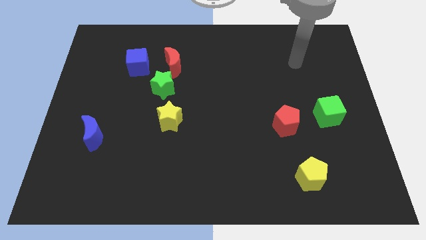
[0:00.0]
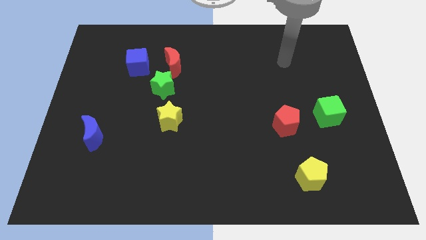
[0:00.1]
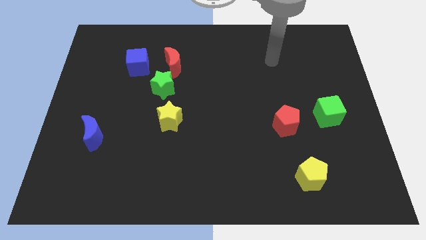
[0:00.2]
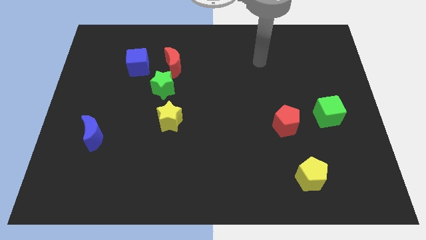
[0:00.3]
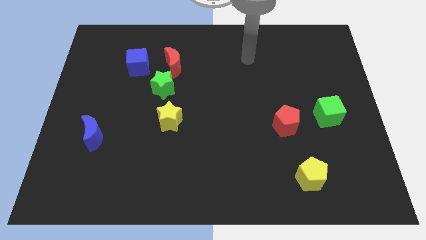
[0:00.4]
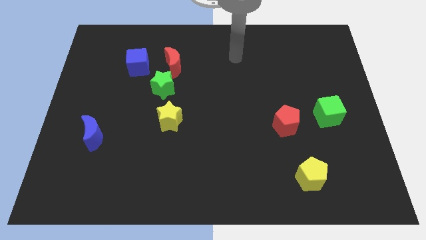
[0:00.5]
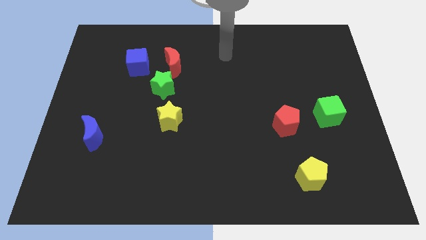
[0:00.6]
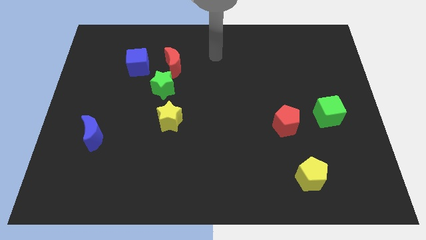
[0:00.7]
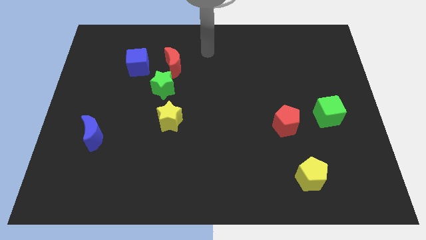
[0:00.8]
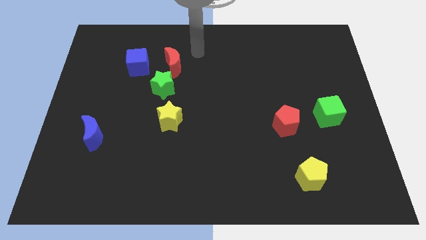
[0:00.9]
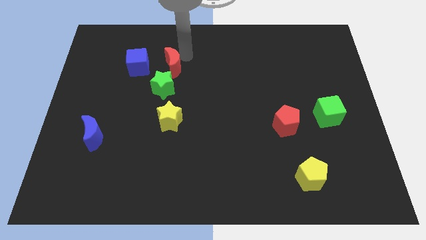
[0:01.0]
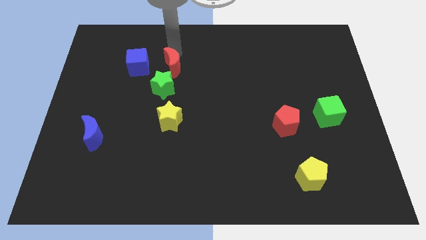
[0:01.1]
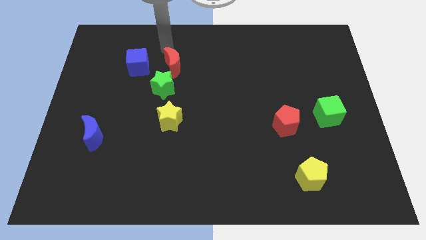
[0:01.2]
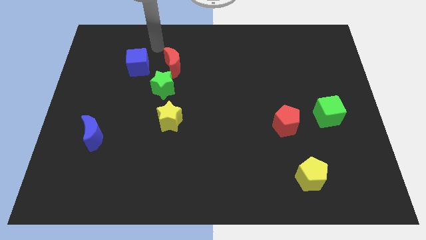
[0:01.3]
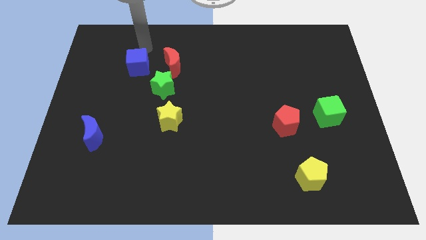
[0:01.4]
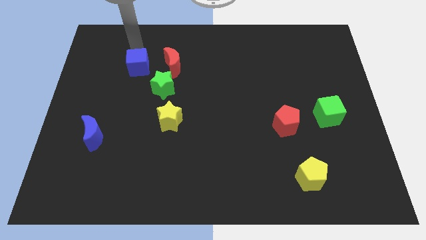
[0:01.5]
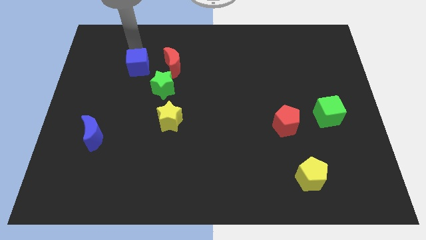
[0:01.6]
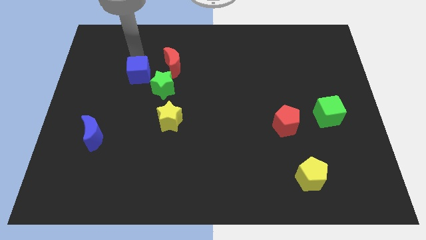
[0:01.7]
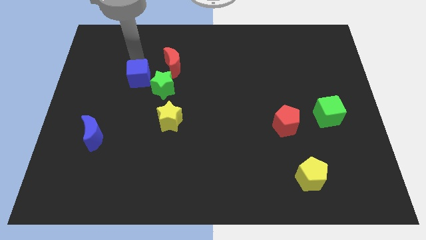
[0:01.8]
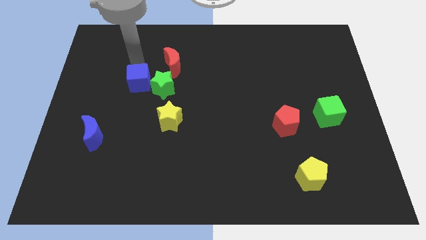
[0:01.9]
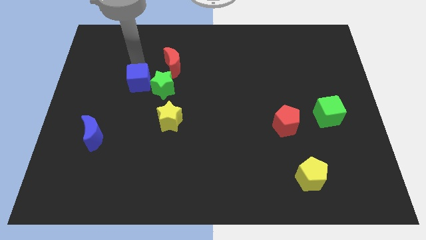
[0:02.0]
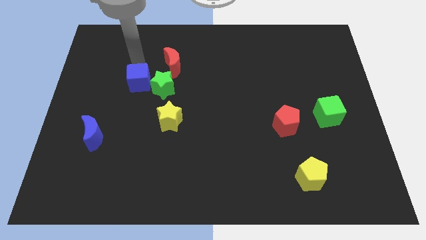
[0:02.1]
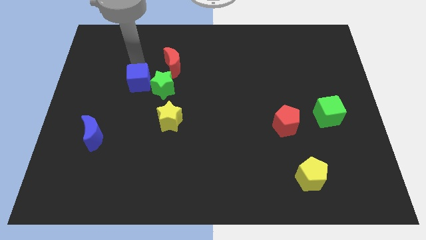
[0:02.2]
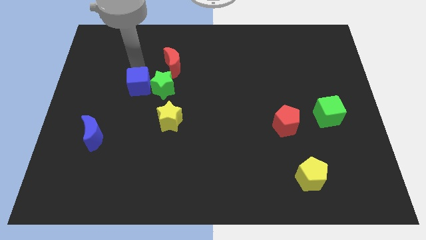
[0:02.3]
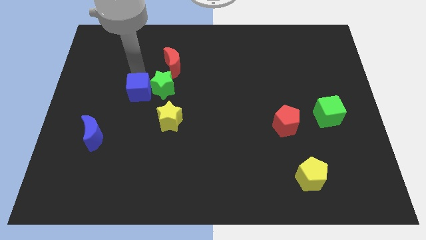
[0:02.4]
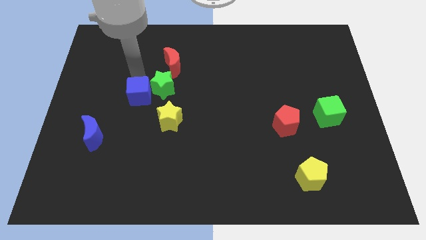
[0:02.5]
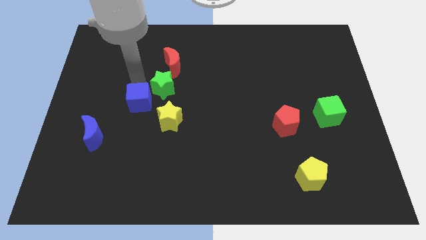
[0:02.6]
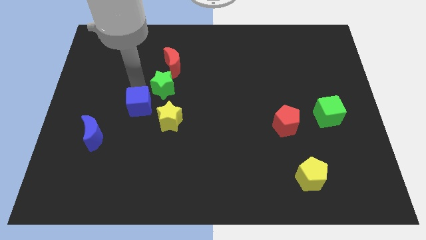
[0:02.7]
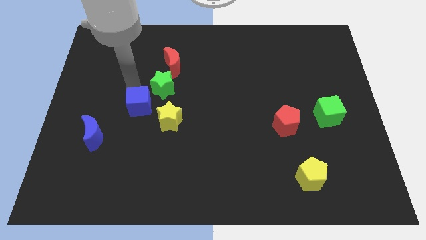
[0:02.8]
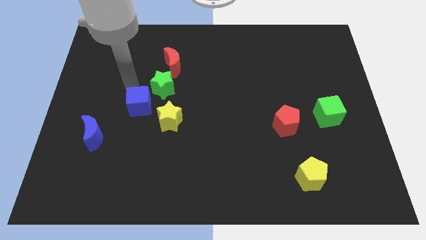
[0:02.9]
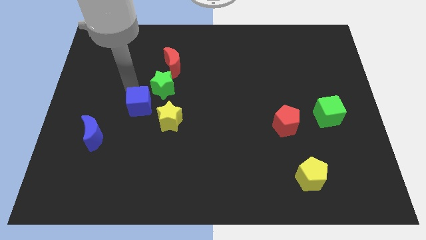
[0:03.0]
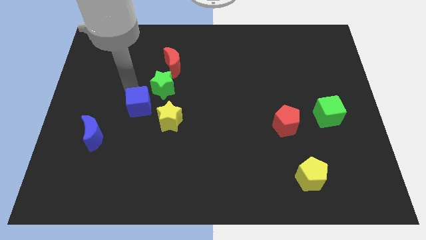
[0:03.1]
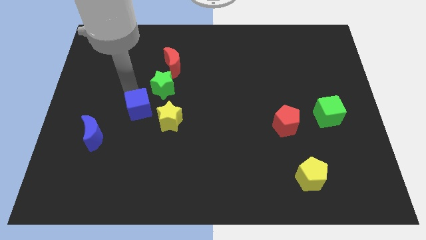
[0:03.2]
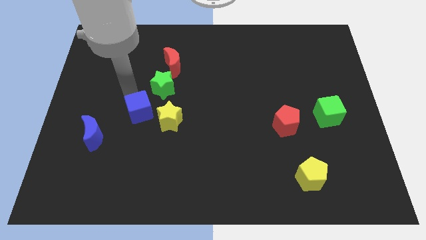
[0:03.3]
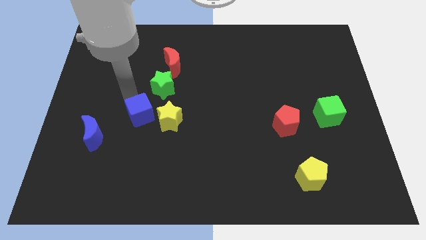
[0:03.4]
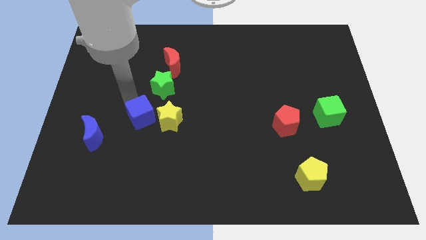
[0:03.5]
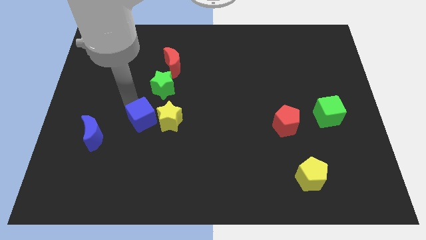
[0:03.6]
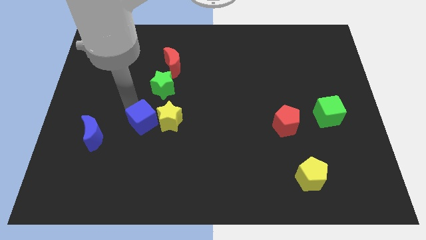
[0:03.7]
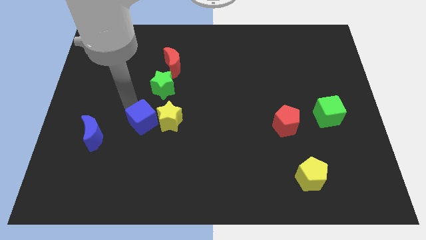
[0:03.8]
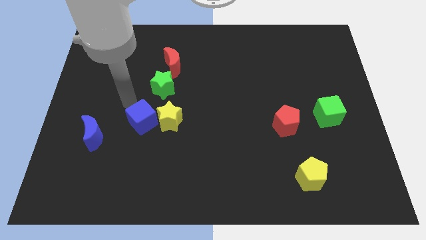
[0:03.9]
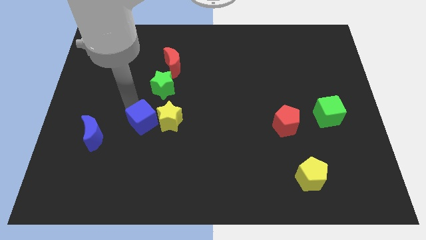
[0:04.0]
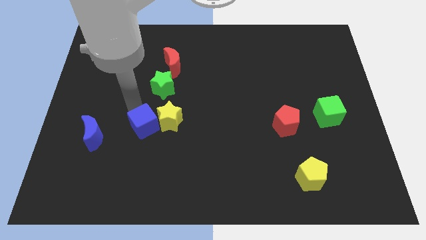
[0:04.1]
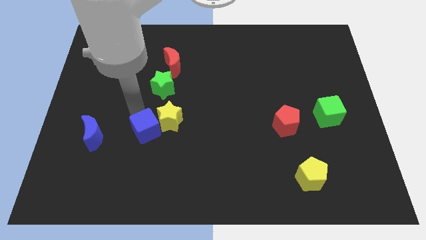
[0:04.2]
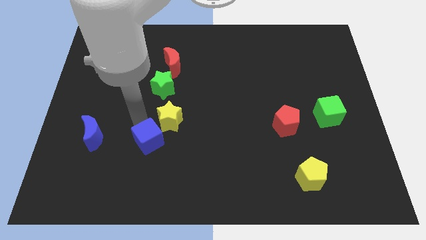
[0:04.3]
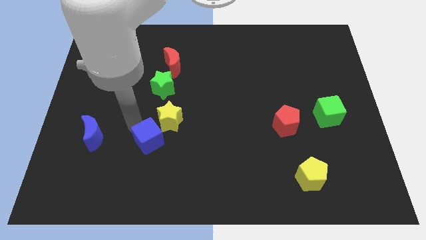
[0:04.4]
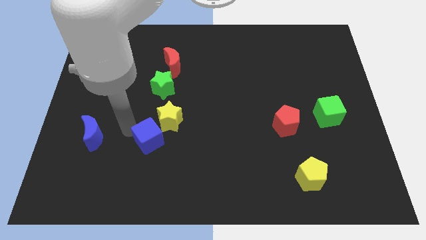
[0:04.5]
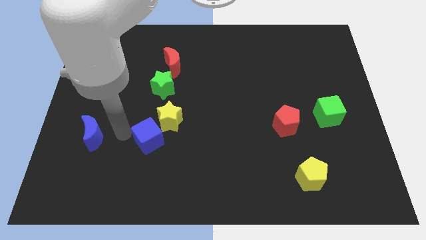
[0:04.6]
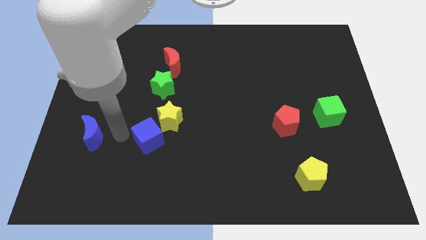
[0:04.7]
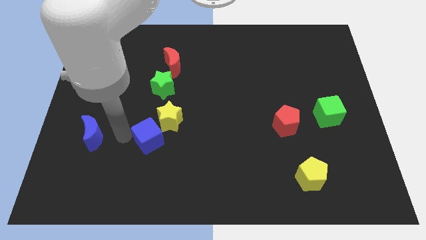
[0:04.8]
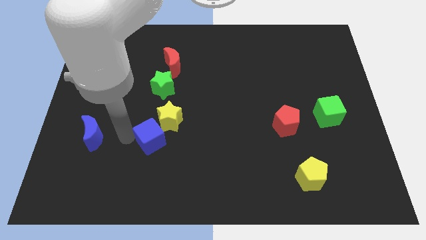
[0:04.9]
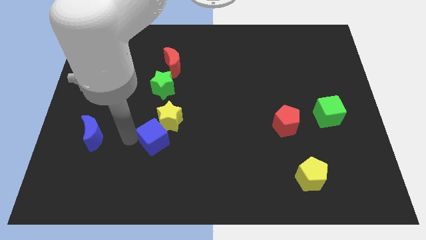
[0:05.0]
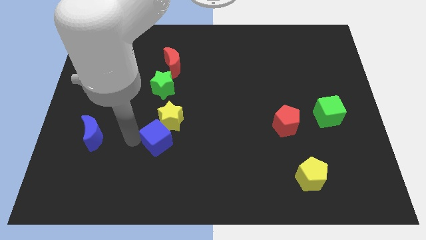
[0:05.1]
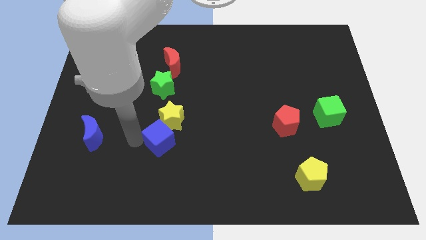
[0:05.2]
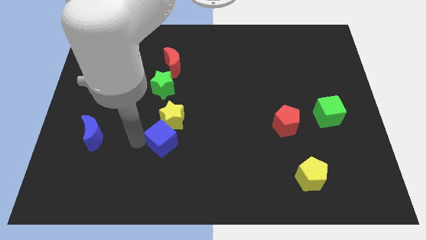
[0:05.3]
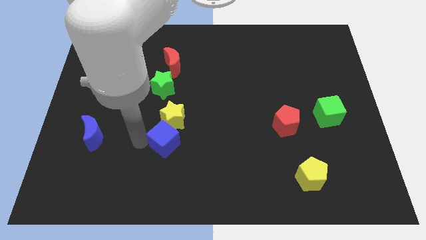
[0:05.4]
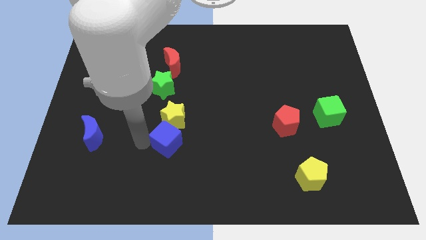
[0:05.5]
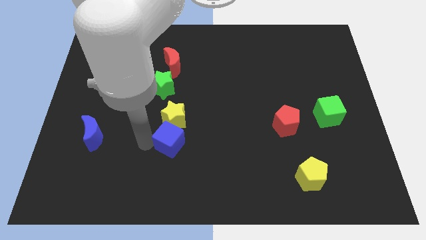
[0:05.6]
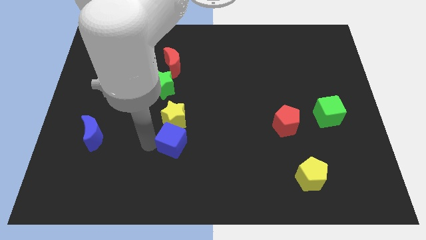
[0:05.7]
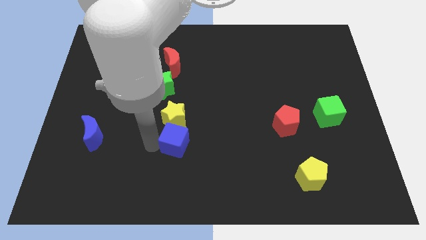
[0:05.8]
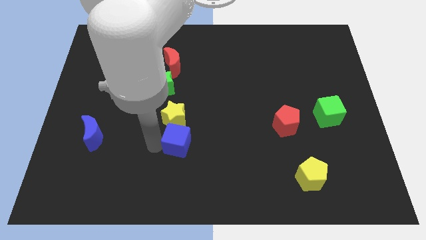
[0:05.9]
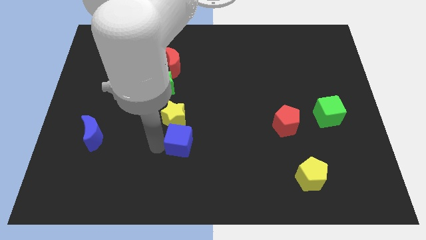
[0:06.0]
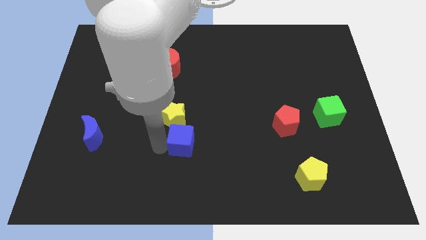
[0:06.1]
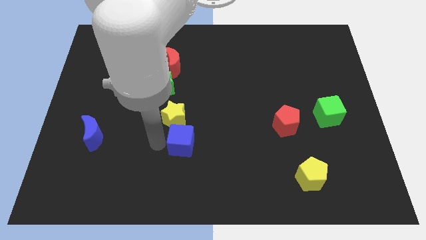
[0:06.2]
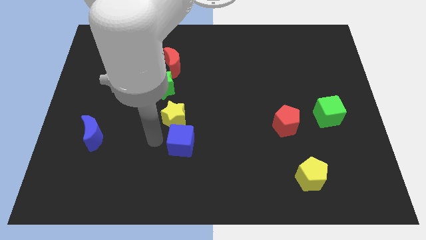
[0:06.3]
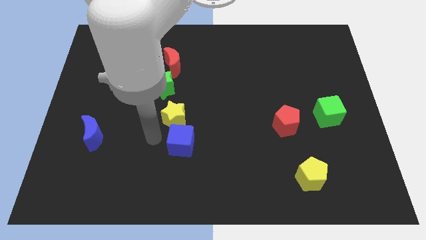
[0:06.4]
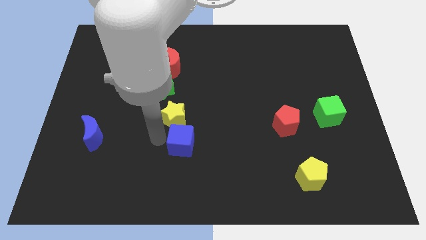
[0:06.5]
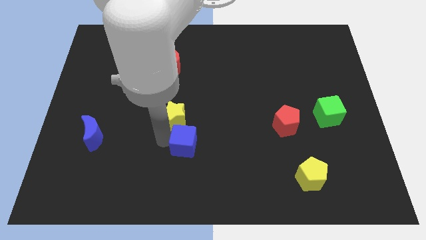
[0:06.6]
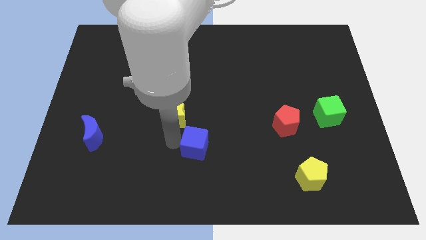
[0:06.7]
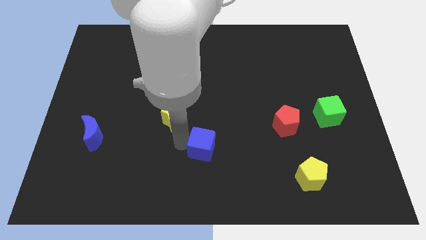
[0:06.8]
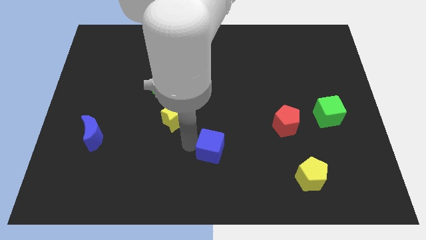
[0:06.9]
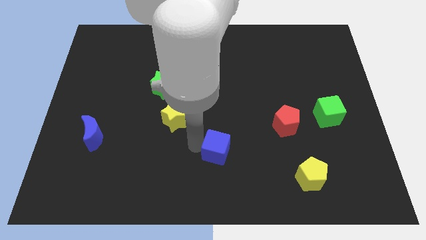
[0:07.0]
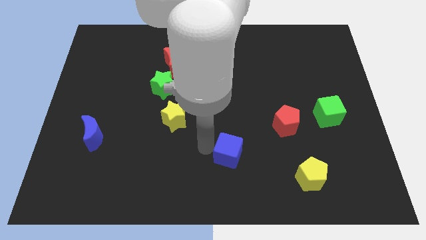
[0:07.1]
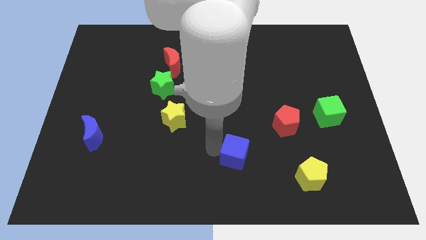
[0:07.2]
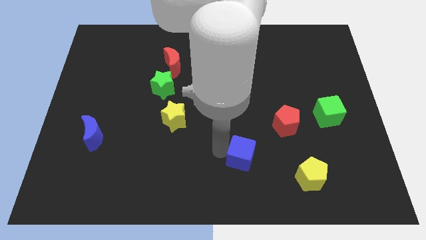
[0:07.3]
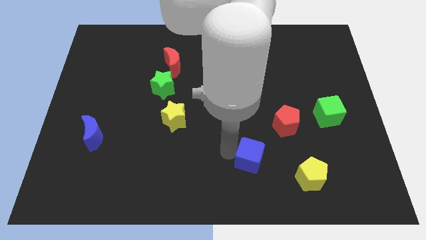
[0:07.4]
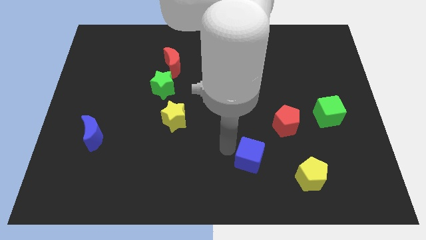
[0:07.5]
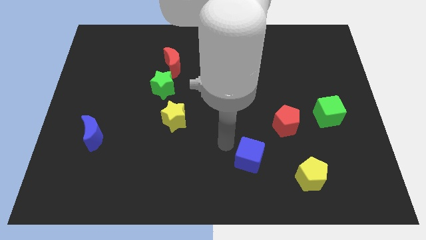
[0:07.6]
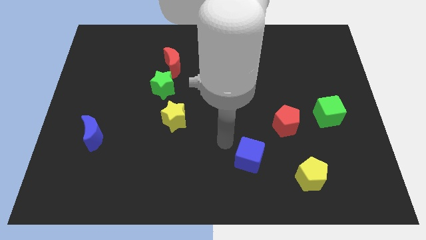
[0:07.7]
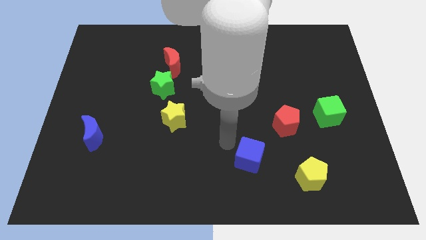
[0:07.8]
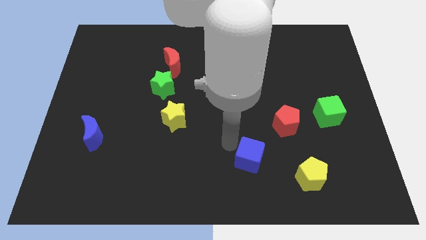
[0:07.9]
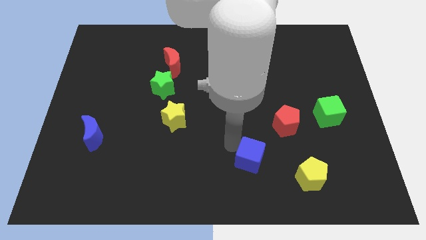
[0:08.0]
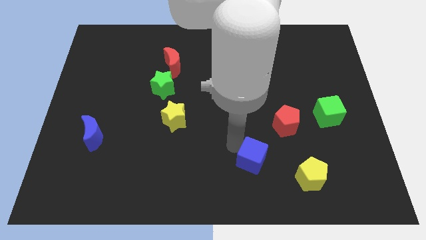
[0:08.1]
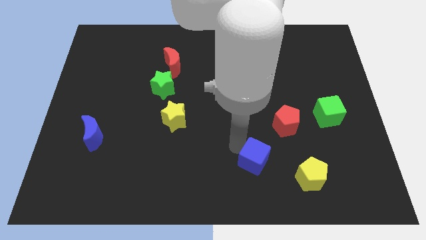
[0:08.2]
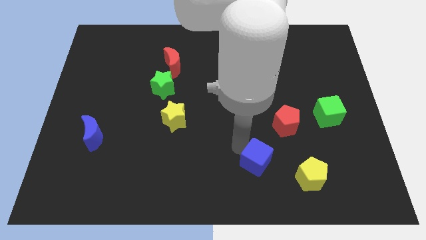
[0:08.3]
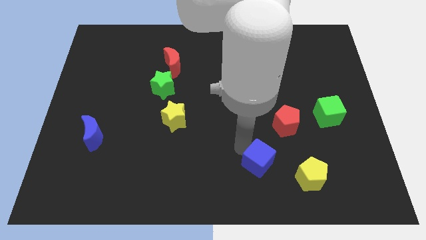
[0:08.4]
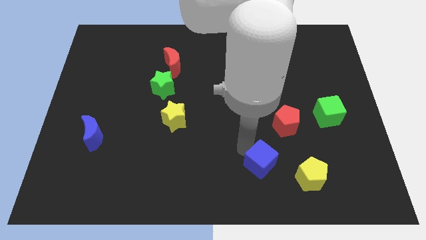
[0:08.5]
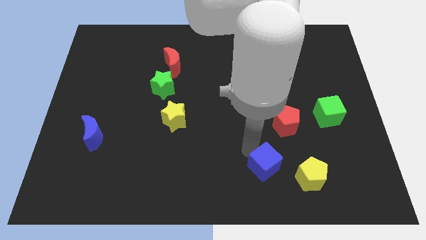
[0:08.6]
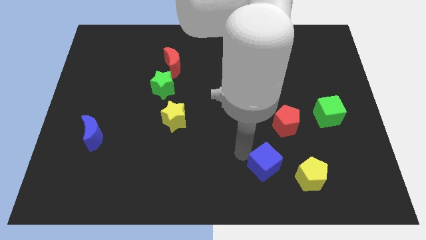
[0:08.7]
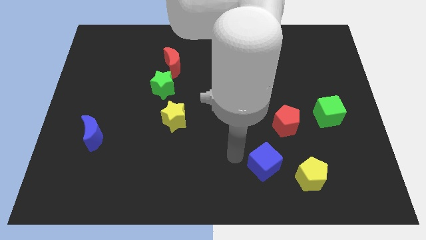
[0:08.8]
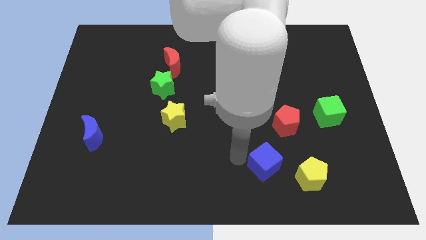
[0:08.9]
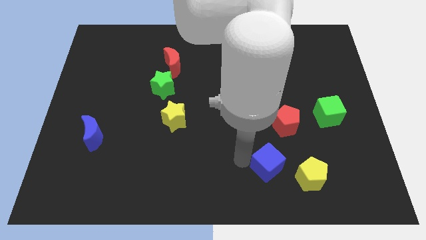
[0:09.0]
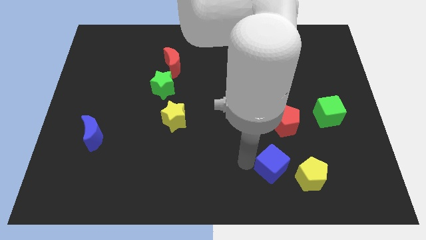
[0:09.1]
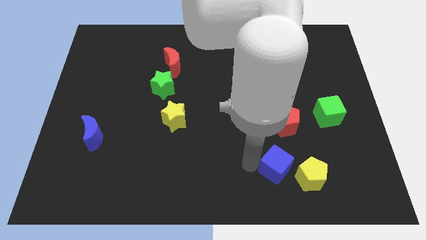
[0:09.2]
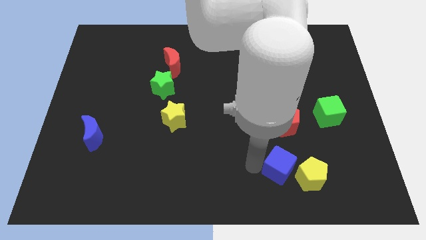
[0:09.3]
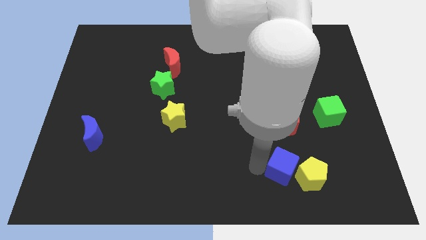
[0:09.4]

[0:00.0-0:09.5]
slide the blue cube towards the yellow pentagon
